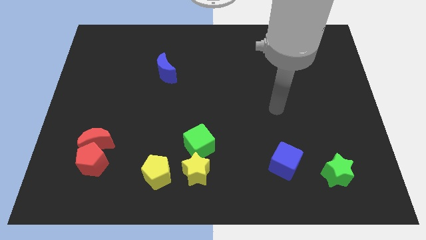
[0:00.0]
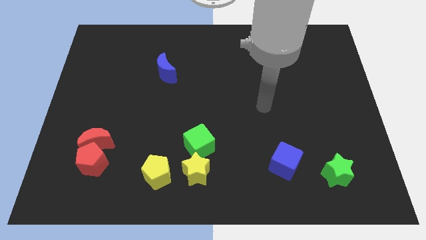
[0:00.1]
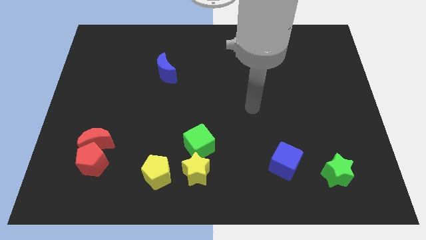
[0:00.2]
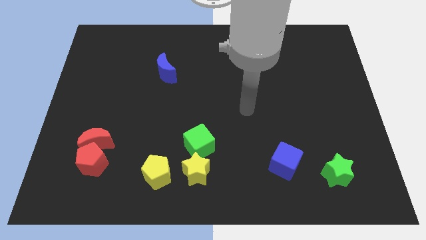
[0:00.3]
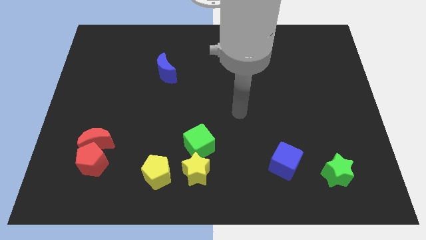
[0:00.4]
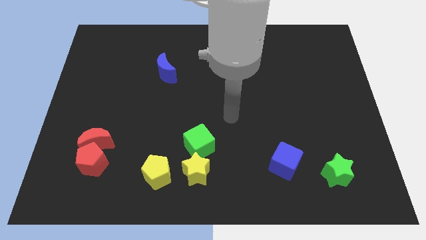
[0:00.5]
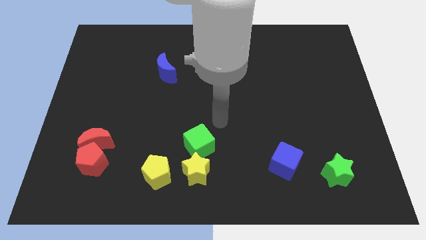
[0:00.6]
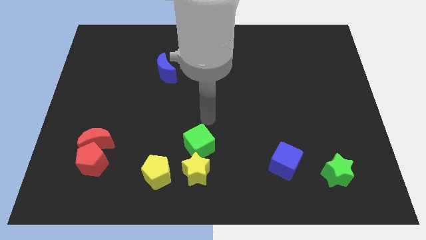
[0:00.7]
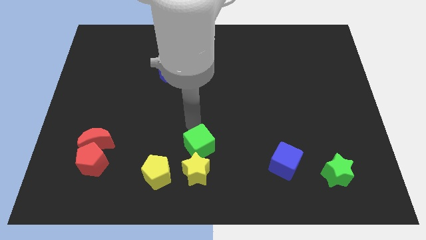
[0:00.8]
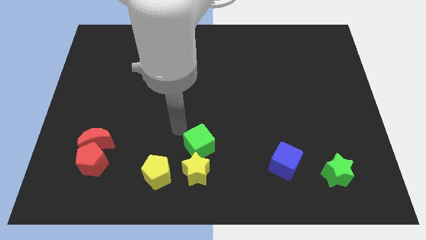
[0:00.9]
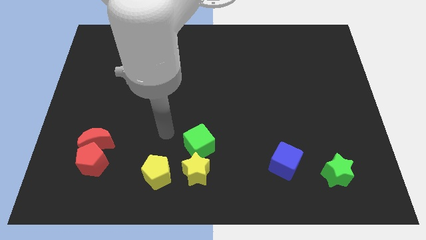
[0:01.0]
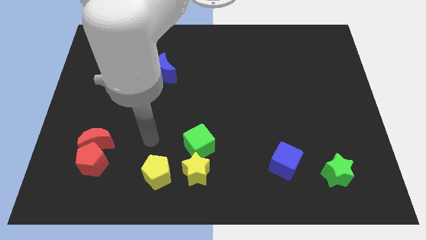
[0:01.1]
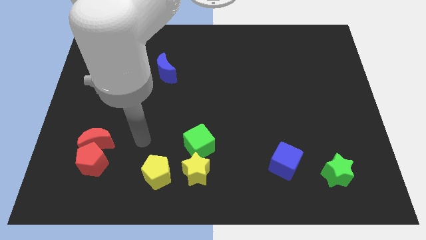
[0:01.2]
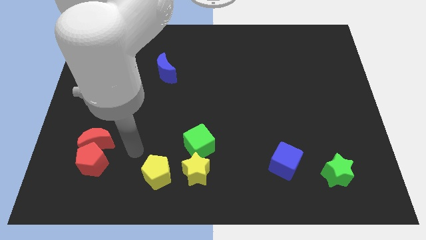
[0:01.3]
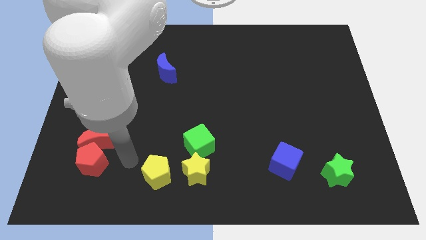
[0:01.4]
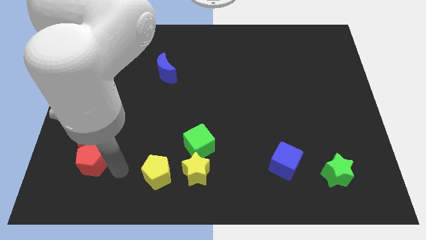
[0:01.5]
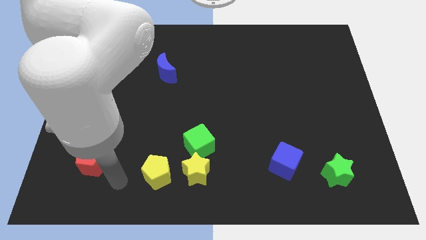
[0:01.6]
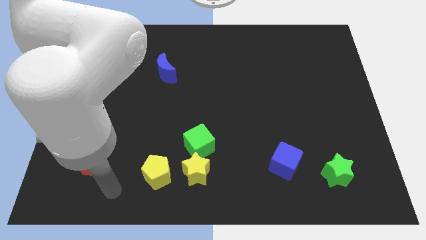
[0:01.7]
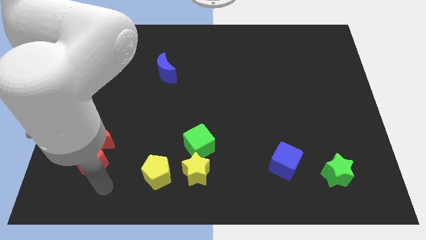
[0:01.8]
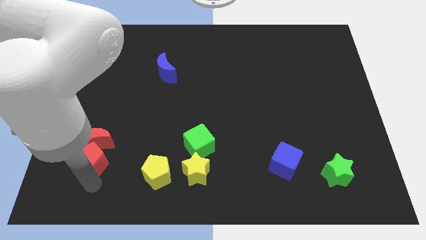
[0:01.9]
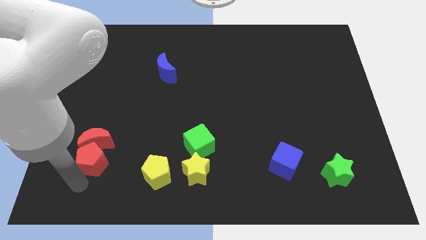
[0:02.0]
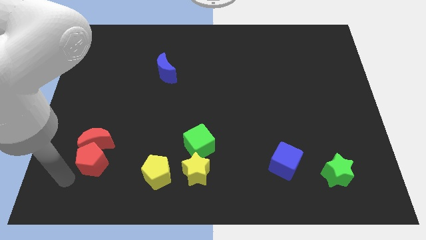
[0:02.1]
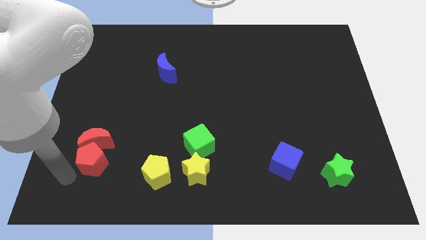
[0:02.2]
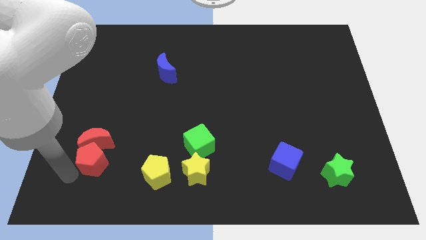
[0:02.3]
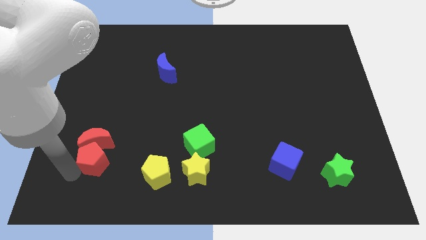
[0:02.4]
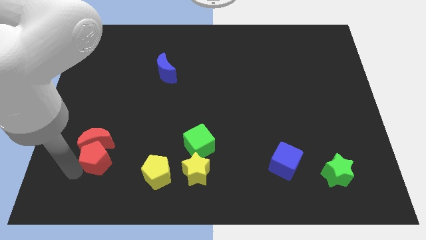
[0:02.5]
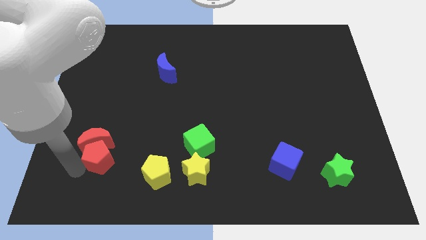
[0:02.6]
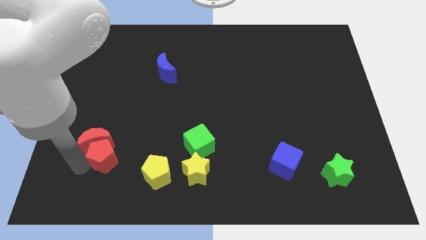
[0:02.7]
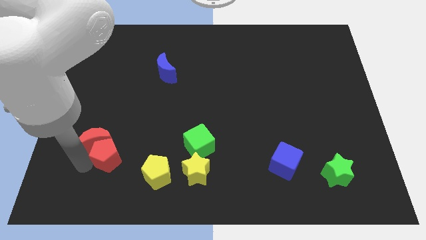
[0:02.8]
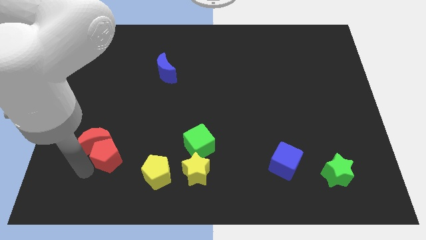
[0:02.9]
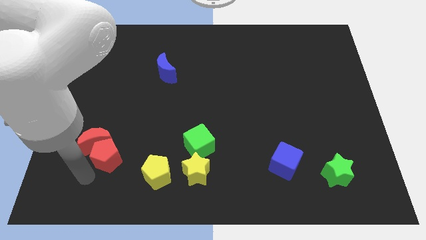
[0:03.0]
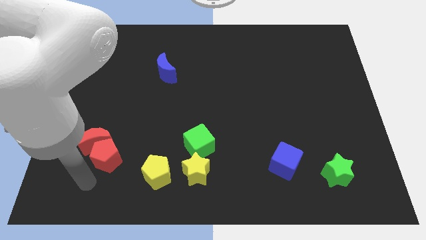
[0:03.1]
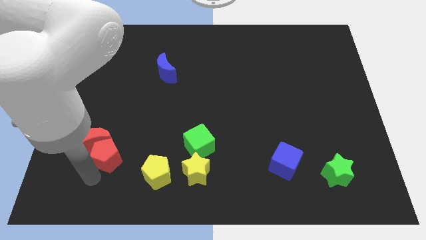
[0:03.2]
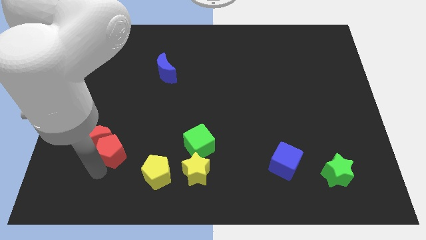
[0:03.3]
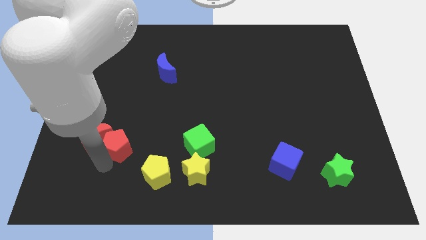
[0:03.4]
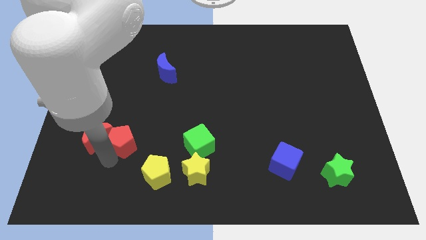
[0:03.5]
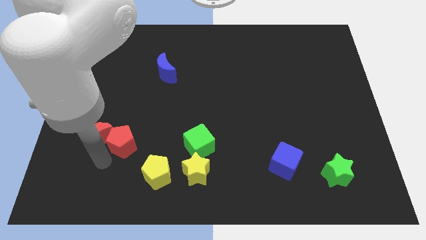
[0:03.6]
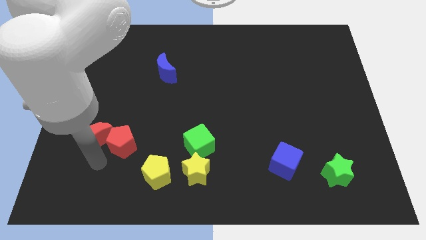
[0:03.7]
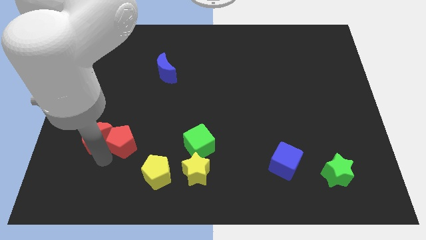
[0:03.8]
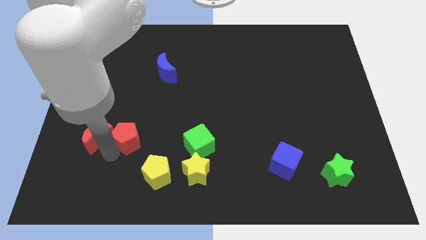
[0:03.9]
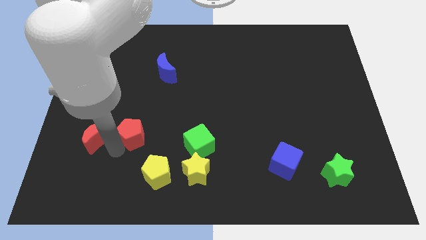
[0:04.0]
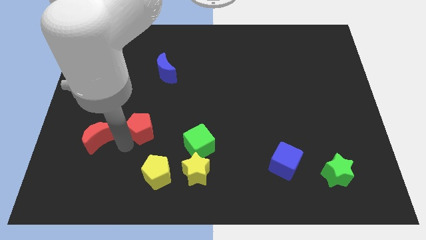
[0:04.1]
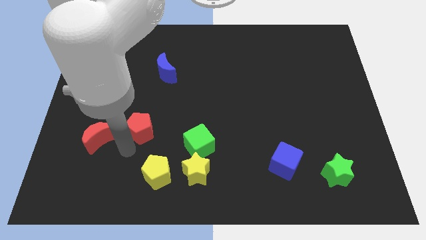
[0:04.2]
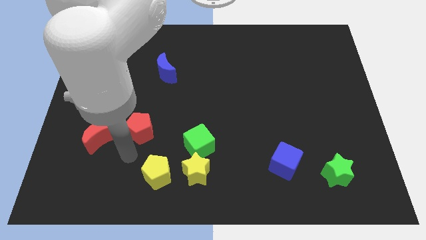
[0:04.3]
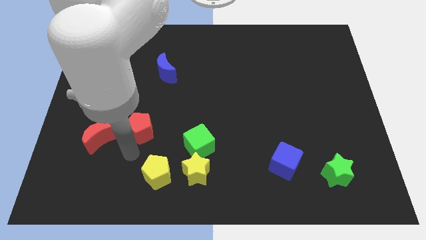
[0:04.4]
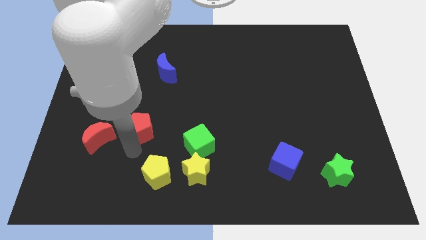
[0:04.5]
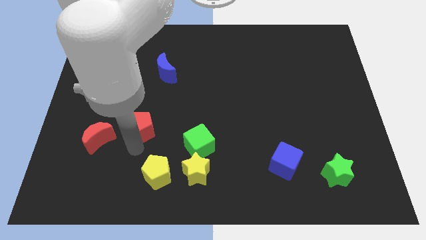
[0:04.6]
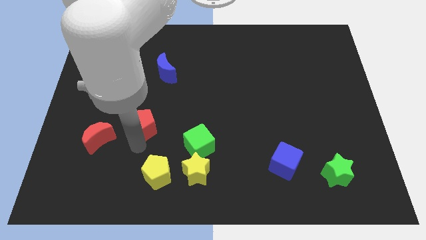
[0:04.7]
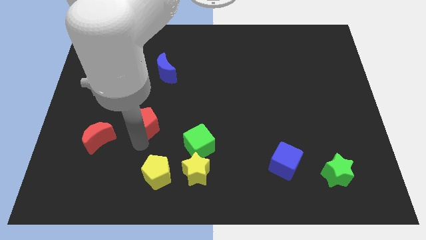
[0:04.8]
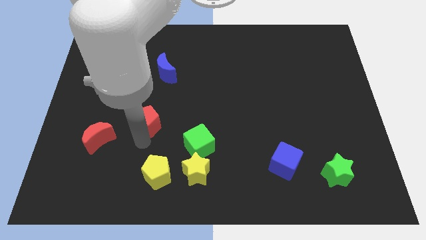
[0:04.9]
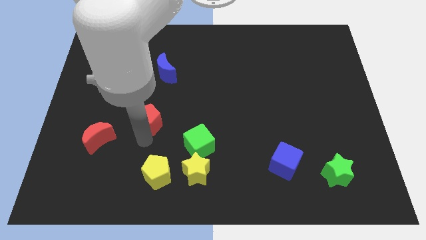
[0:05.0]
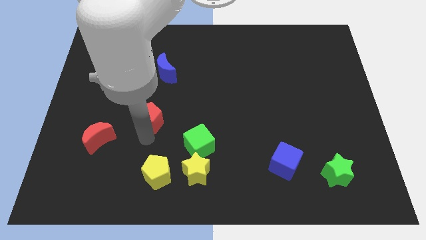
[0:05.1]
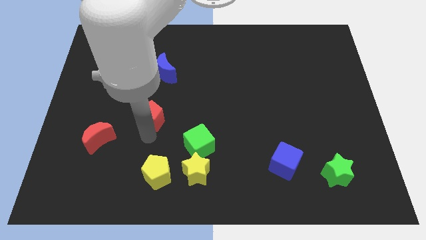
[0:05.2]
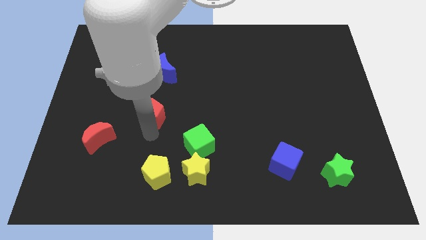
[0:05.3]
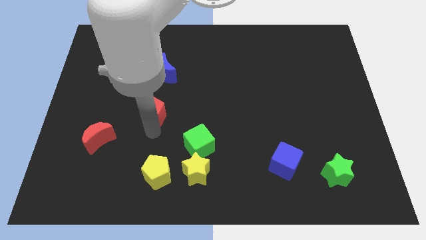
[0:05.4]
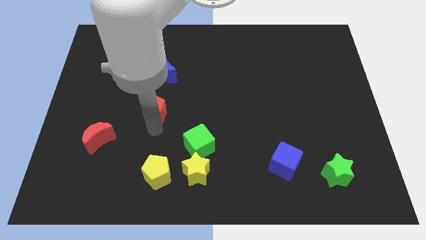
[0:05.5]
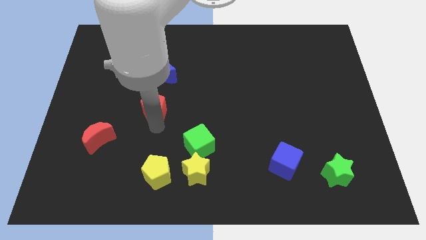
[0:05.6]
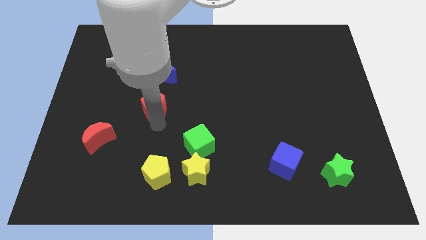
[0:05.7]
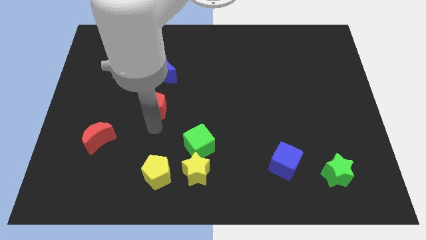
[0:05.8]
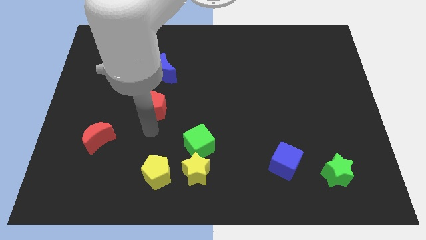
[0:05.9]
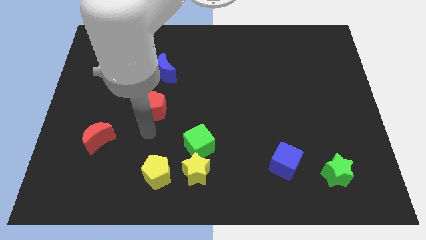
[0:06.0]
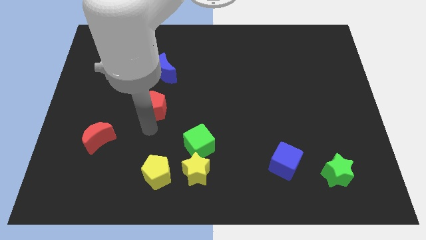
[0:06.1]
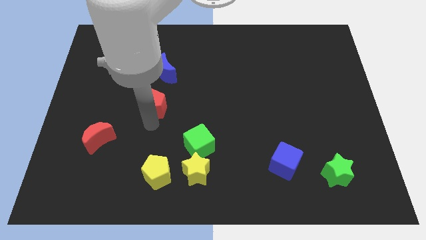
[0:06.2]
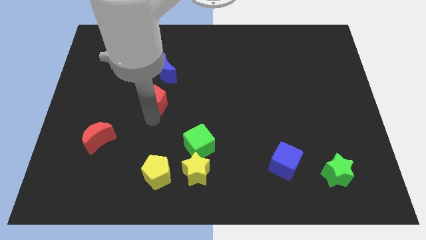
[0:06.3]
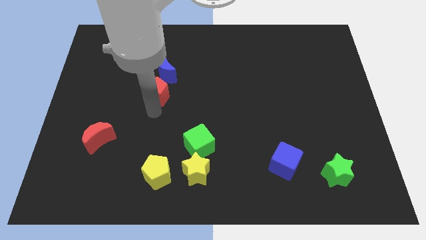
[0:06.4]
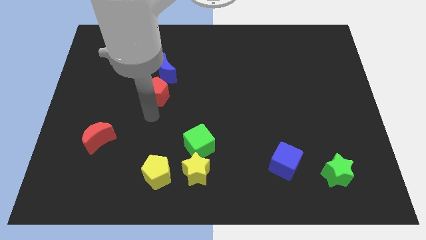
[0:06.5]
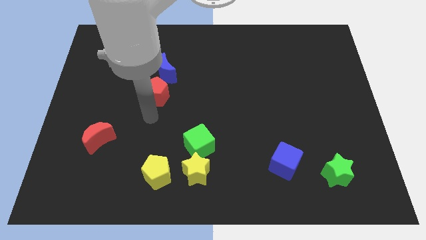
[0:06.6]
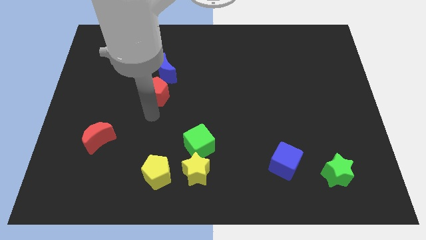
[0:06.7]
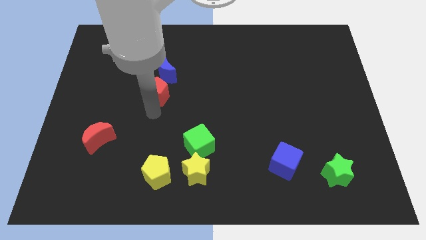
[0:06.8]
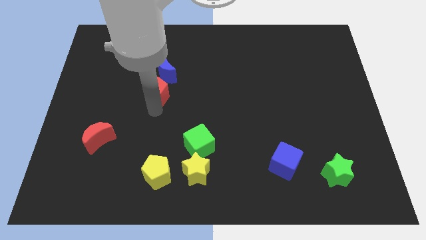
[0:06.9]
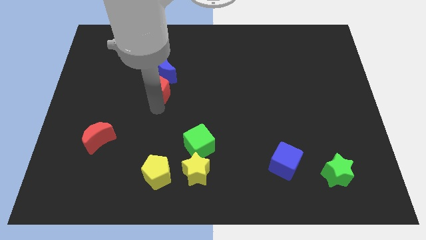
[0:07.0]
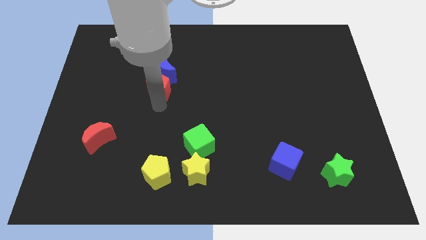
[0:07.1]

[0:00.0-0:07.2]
slide the red pentagon close to the blue moon
